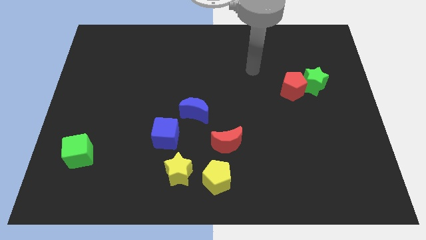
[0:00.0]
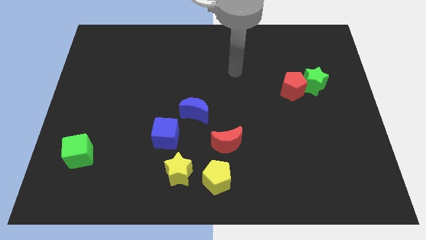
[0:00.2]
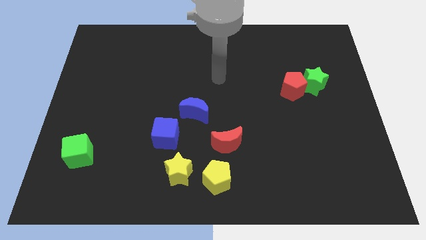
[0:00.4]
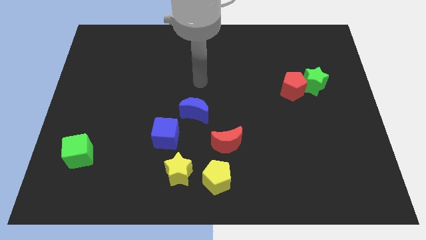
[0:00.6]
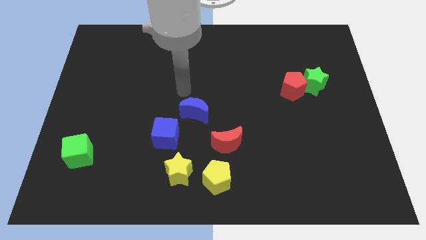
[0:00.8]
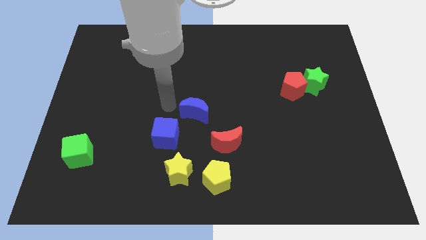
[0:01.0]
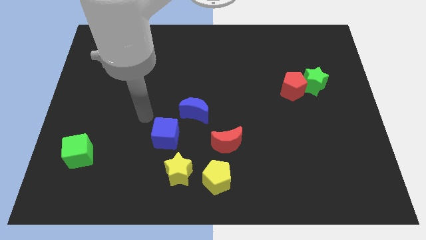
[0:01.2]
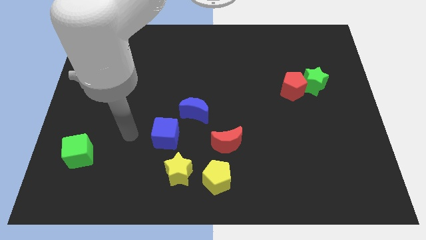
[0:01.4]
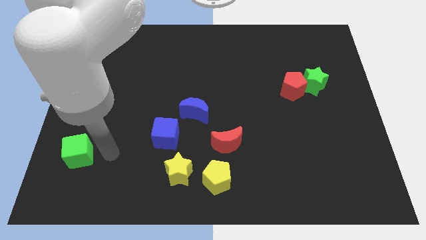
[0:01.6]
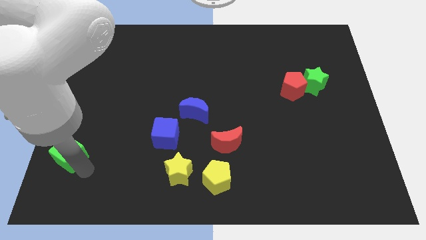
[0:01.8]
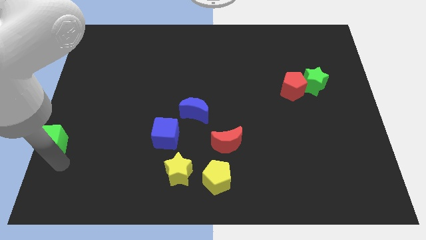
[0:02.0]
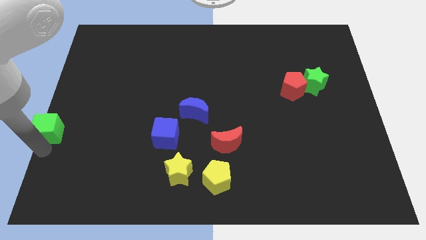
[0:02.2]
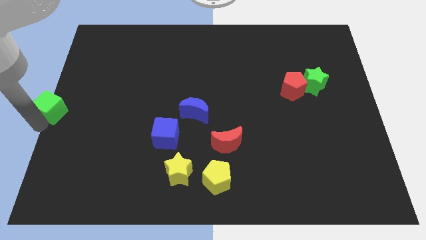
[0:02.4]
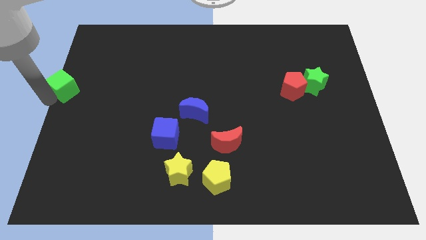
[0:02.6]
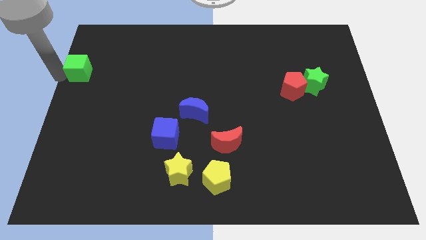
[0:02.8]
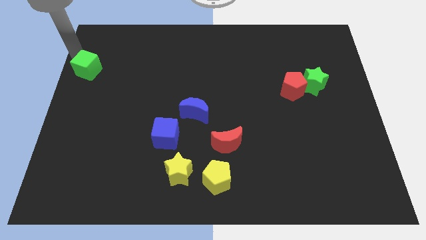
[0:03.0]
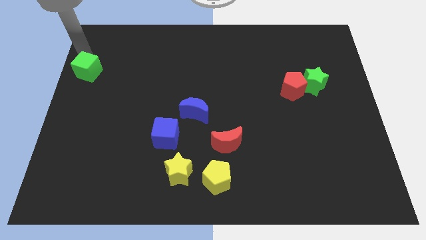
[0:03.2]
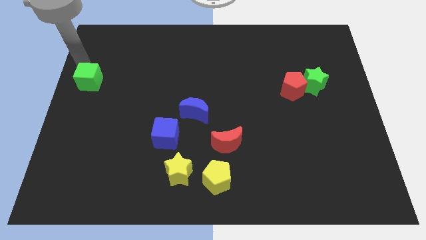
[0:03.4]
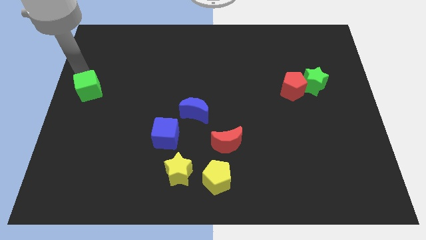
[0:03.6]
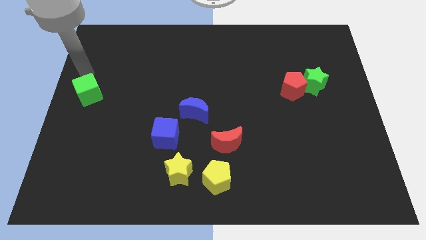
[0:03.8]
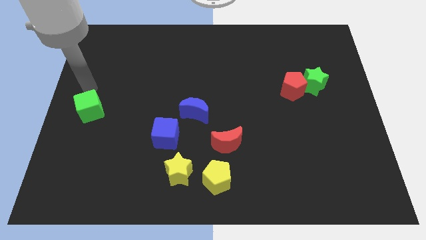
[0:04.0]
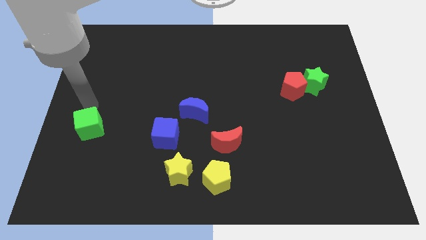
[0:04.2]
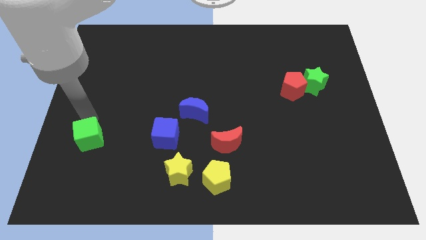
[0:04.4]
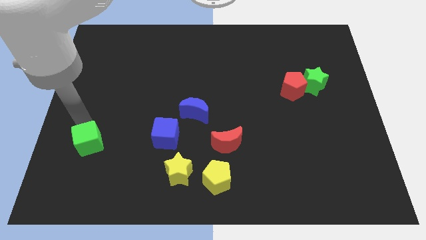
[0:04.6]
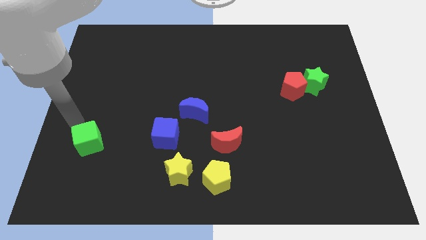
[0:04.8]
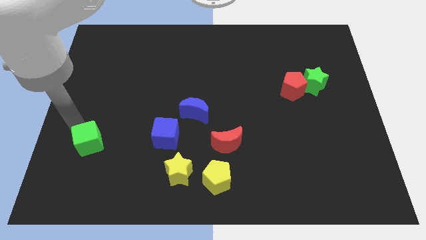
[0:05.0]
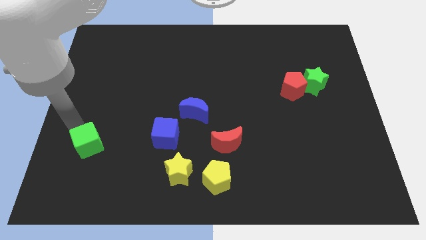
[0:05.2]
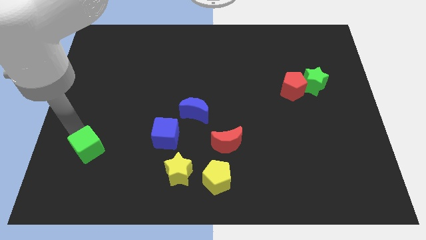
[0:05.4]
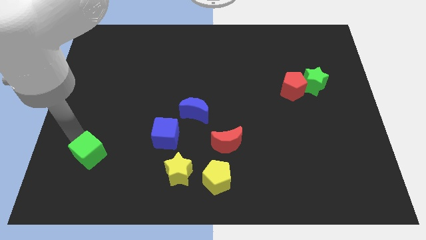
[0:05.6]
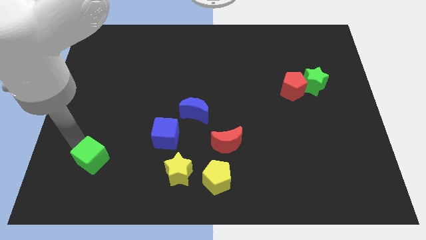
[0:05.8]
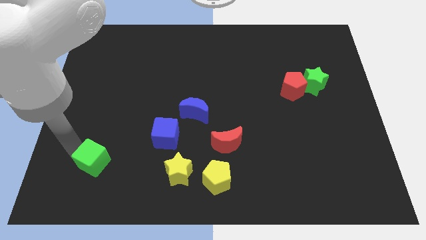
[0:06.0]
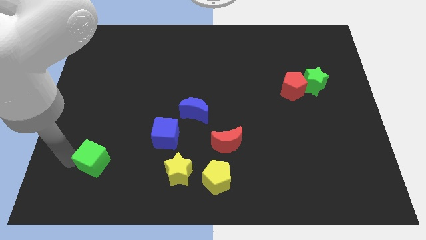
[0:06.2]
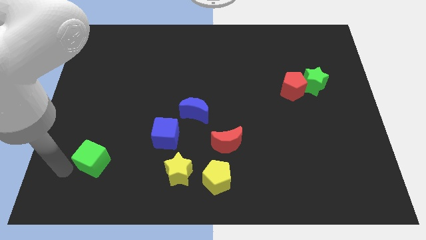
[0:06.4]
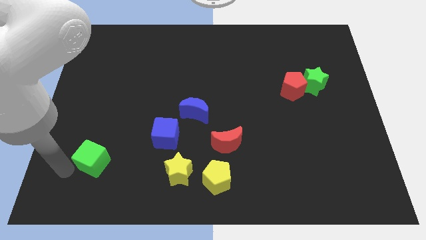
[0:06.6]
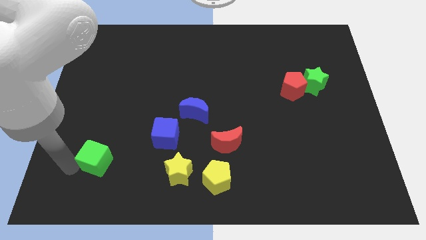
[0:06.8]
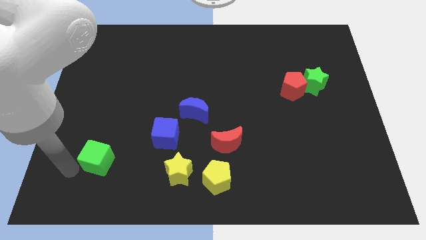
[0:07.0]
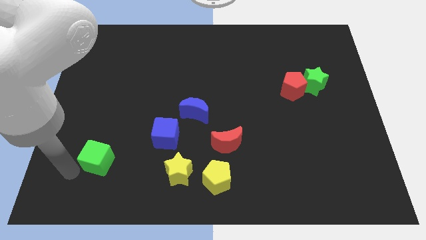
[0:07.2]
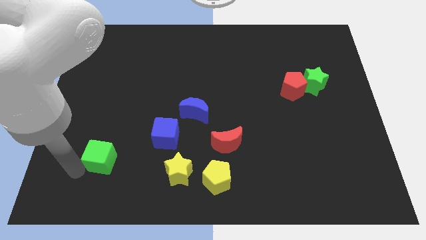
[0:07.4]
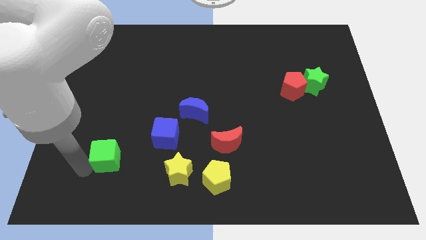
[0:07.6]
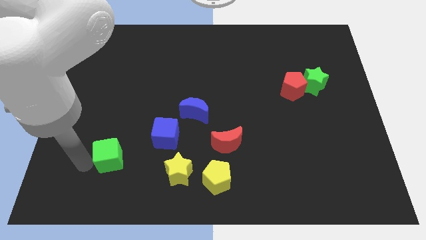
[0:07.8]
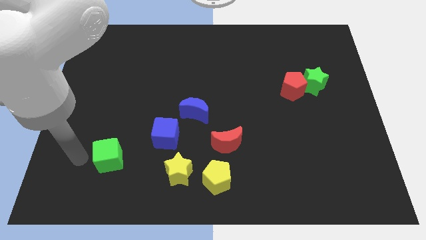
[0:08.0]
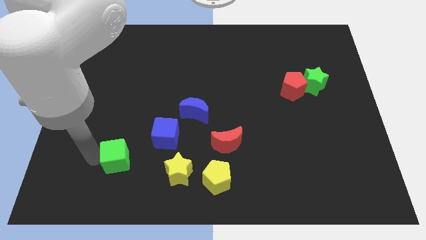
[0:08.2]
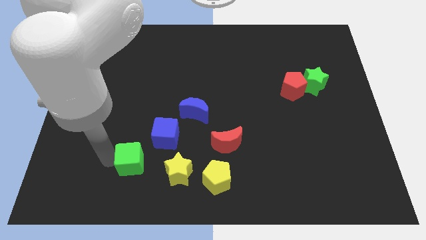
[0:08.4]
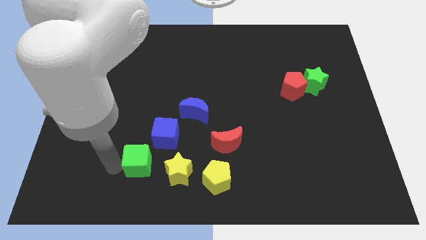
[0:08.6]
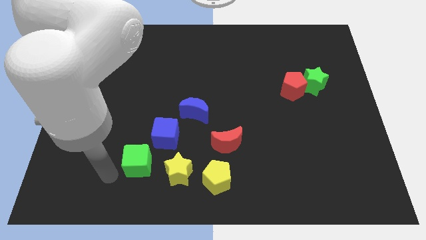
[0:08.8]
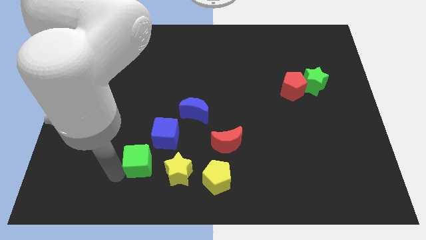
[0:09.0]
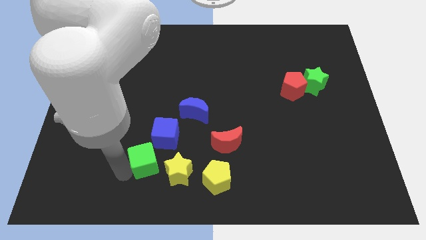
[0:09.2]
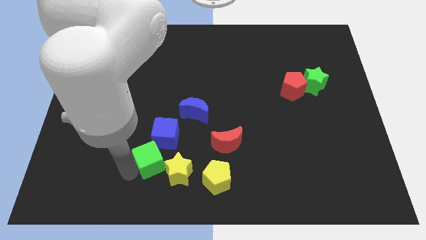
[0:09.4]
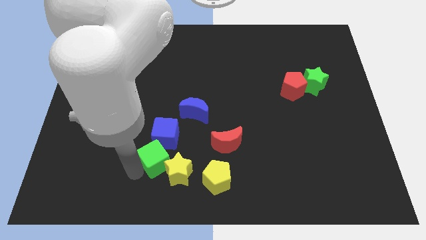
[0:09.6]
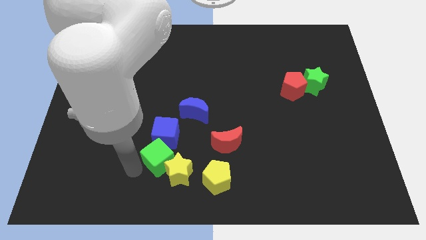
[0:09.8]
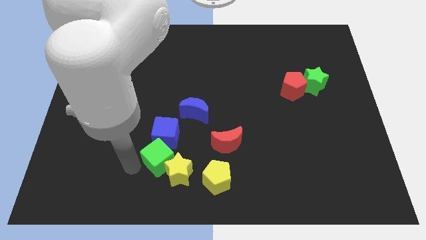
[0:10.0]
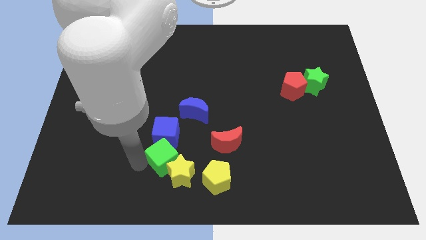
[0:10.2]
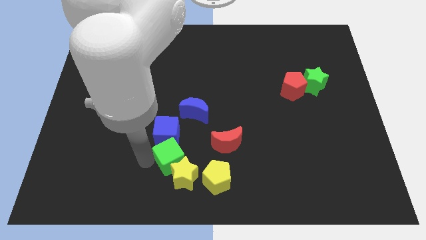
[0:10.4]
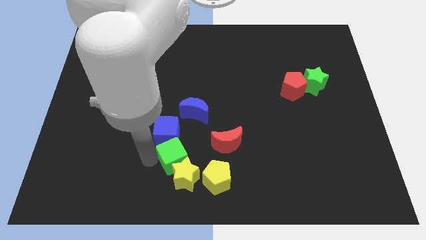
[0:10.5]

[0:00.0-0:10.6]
put the green cube to the bottom side of the blue moon

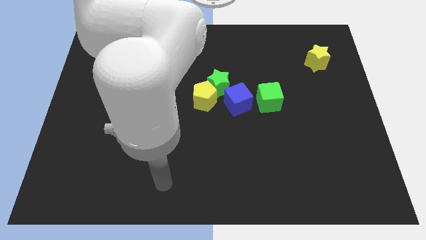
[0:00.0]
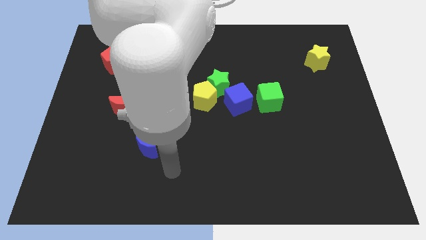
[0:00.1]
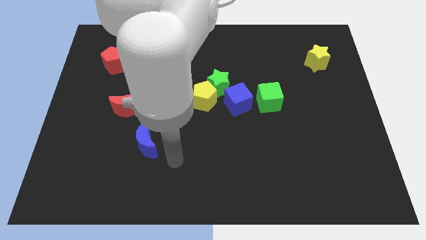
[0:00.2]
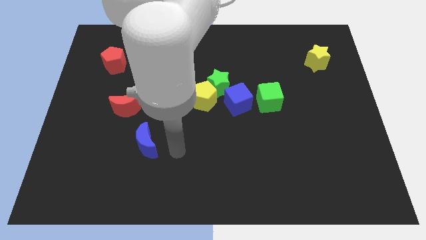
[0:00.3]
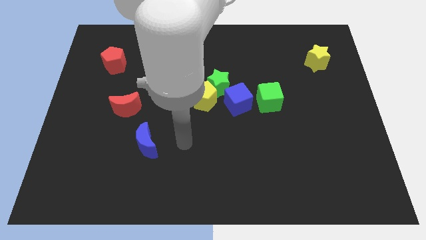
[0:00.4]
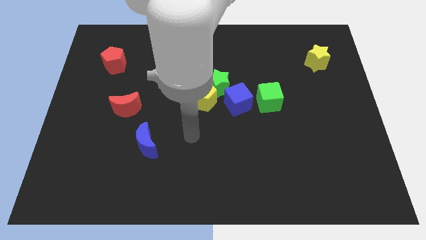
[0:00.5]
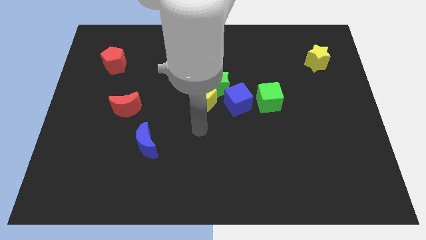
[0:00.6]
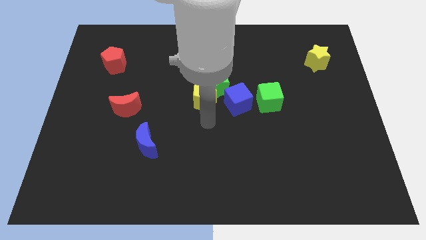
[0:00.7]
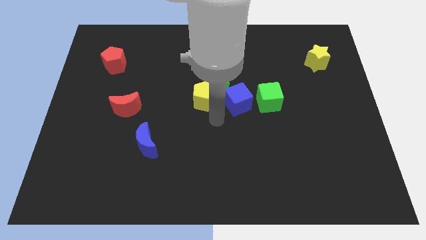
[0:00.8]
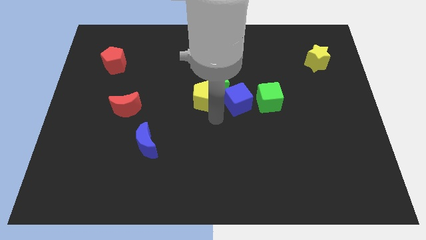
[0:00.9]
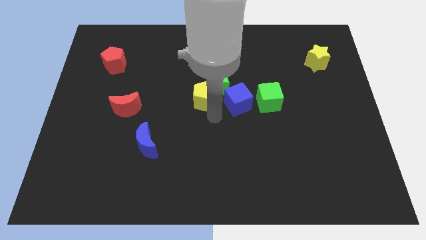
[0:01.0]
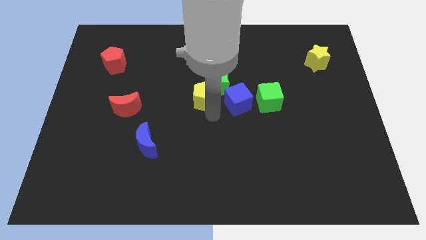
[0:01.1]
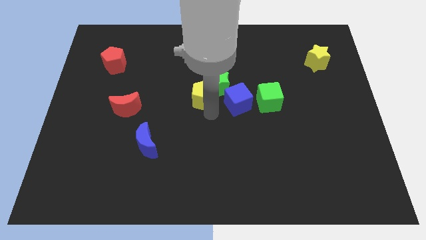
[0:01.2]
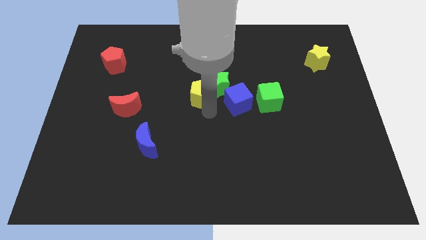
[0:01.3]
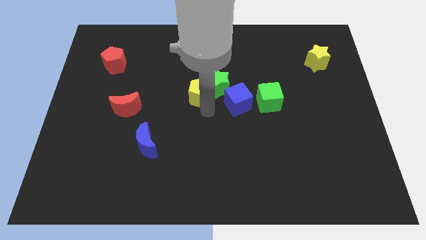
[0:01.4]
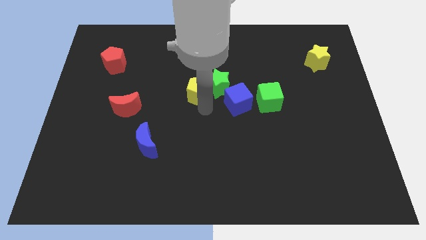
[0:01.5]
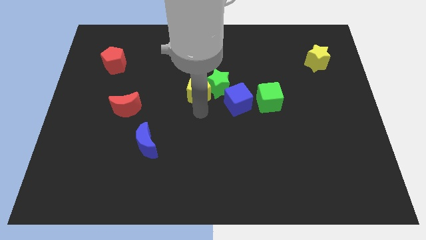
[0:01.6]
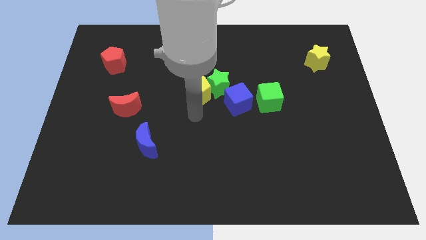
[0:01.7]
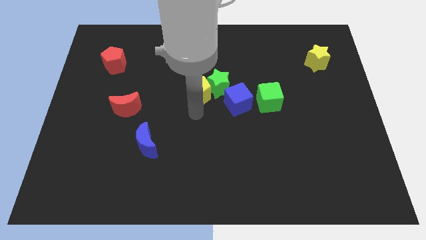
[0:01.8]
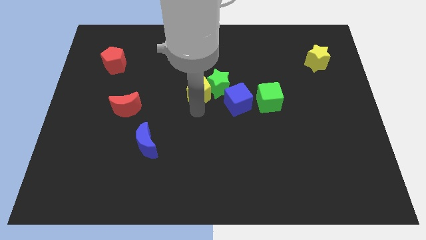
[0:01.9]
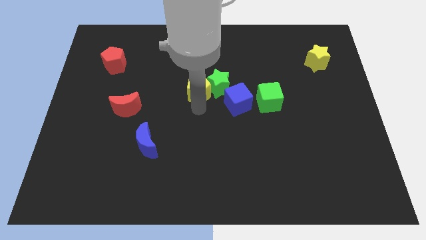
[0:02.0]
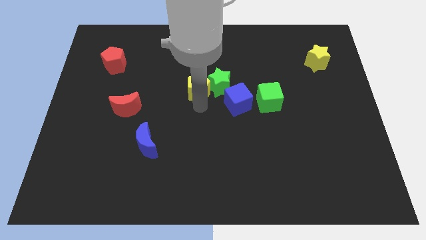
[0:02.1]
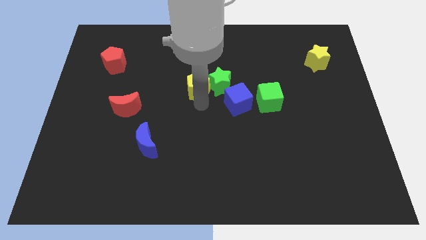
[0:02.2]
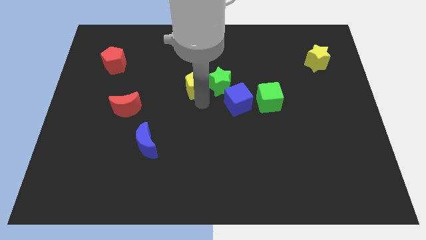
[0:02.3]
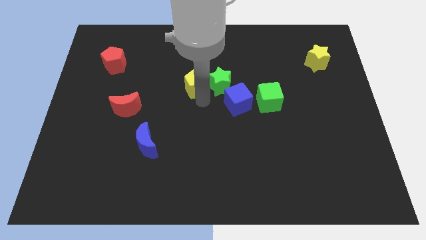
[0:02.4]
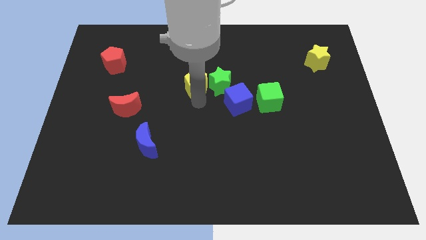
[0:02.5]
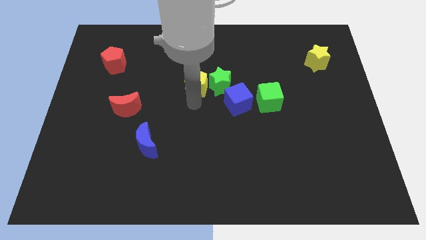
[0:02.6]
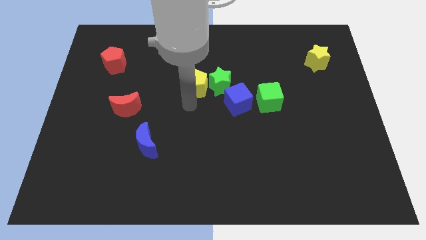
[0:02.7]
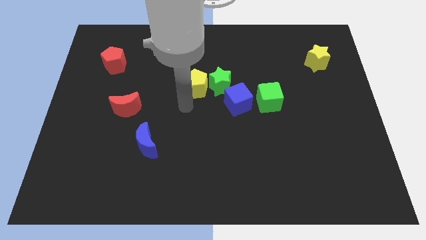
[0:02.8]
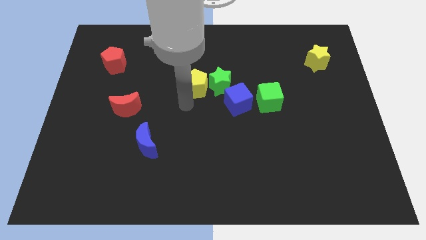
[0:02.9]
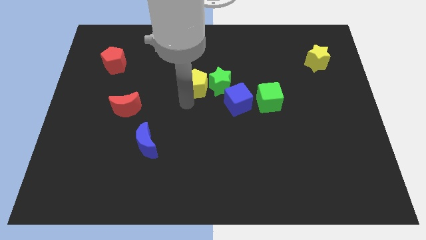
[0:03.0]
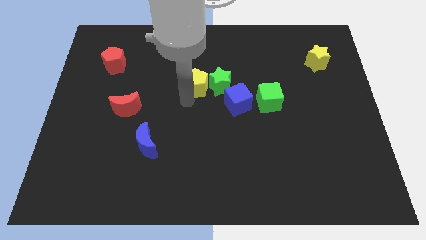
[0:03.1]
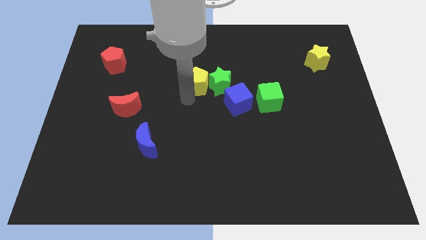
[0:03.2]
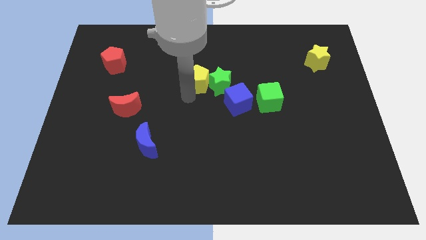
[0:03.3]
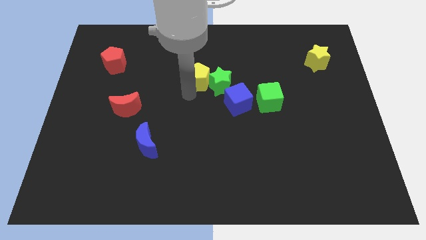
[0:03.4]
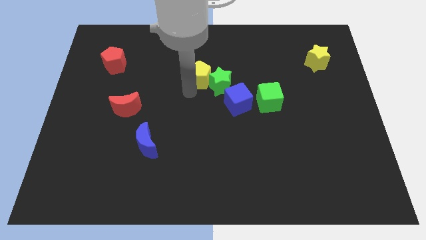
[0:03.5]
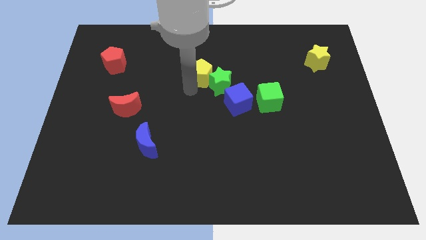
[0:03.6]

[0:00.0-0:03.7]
push the yellow pentagon to the top side of the green star
